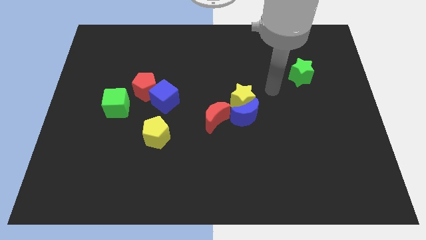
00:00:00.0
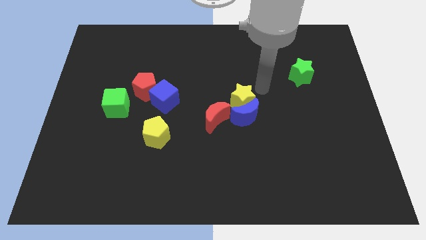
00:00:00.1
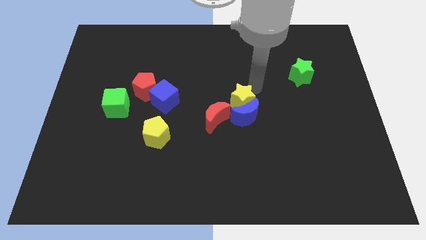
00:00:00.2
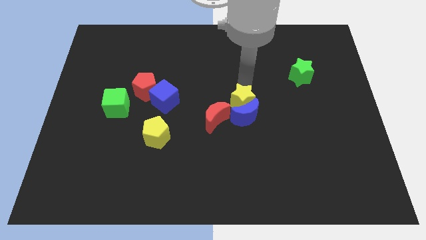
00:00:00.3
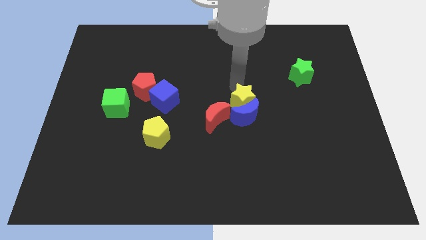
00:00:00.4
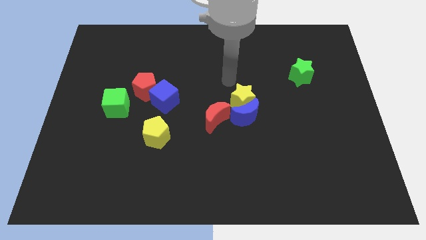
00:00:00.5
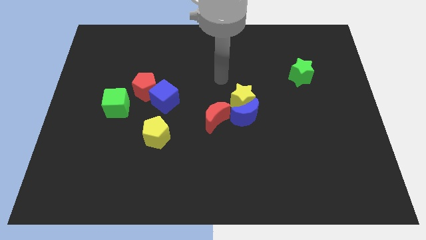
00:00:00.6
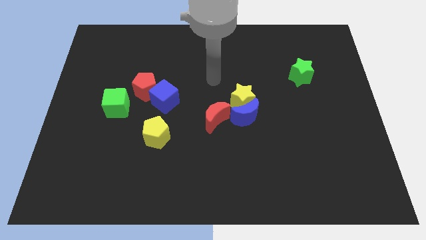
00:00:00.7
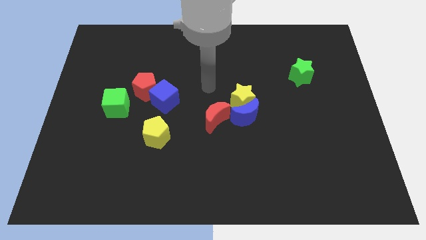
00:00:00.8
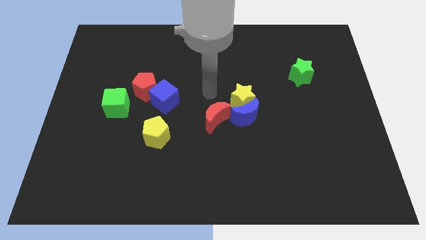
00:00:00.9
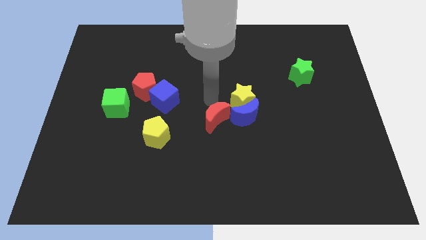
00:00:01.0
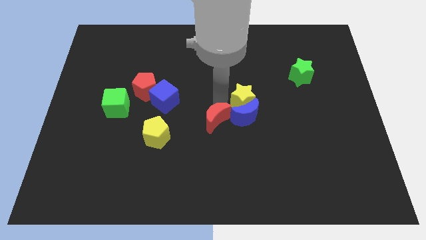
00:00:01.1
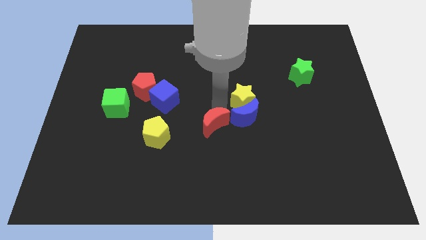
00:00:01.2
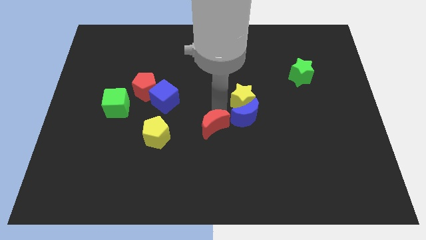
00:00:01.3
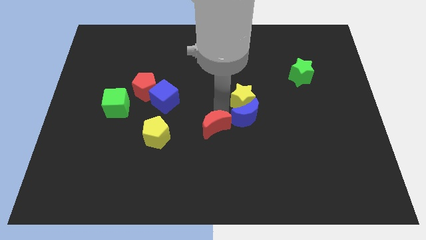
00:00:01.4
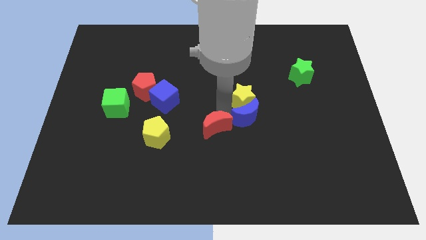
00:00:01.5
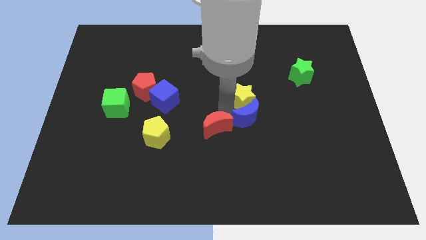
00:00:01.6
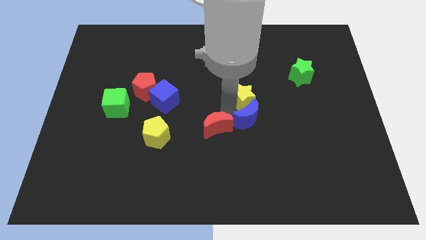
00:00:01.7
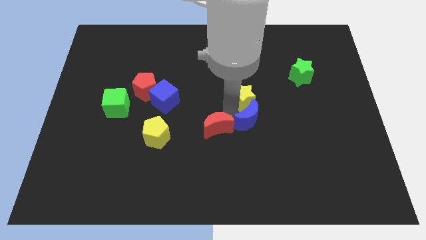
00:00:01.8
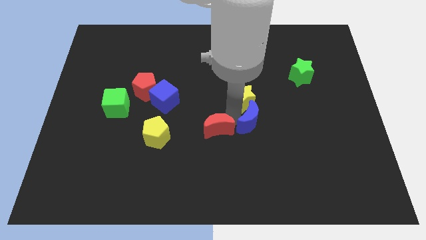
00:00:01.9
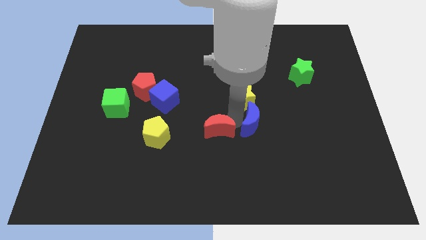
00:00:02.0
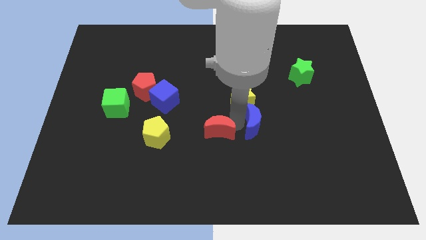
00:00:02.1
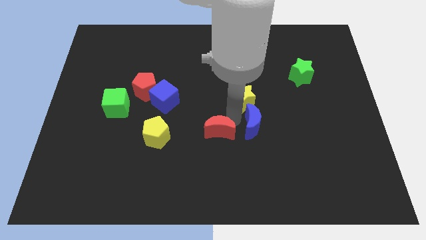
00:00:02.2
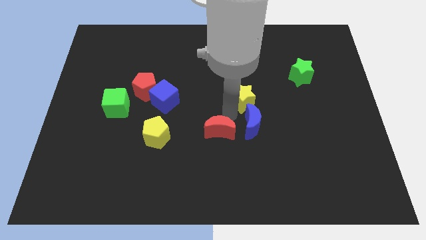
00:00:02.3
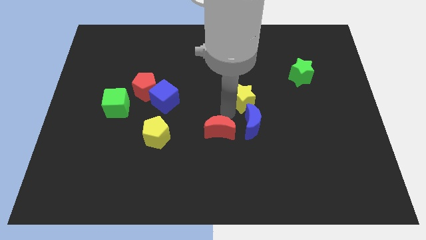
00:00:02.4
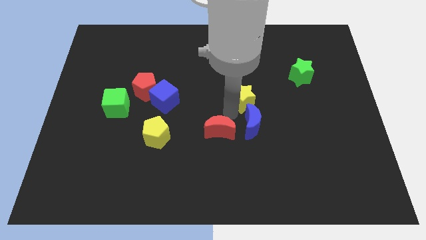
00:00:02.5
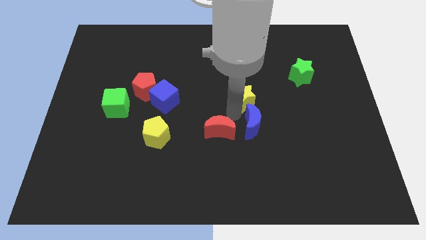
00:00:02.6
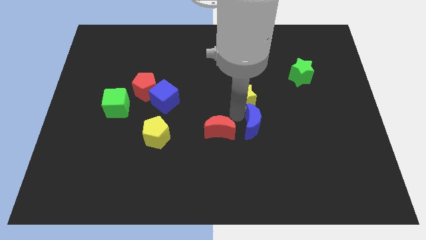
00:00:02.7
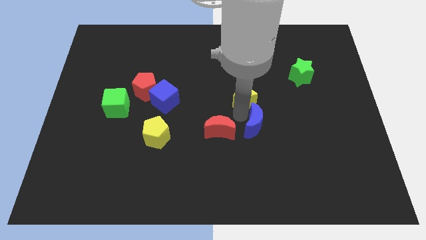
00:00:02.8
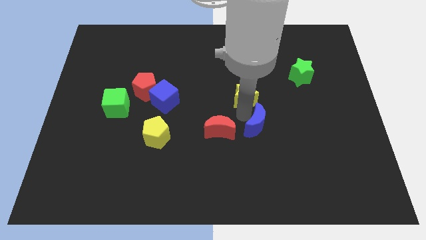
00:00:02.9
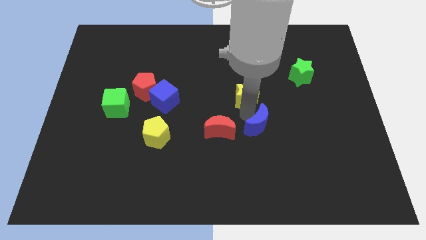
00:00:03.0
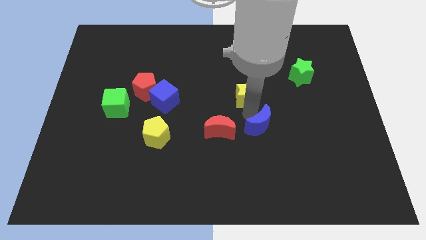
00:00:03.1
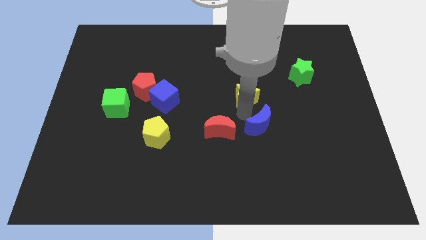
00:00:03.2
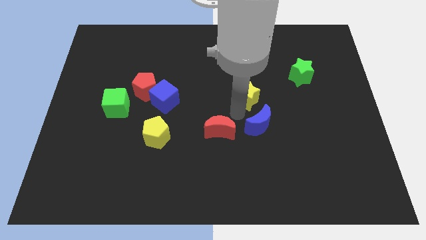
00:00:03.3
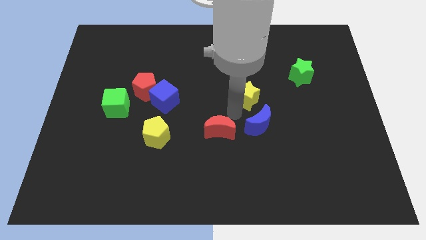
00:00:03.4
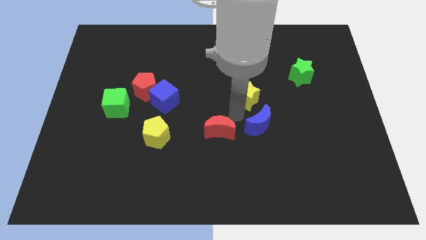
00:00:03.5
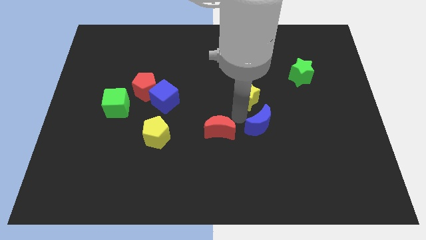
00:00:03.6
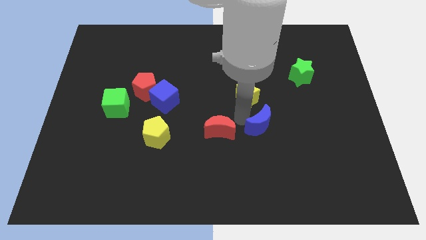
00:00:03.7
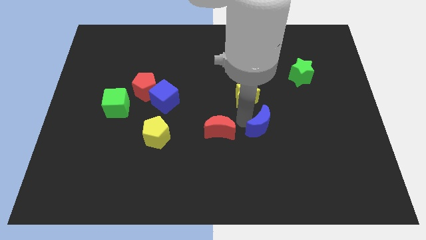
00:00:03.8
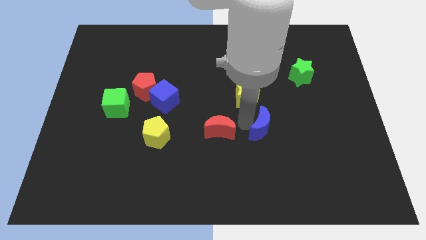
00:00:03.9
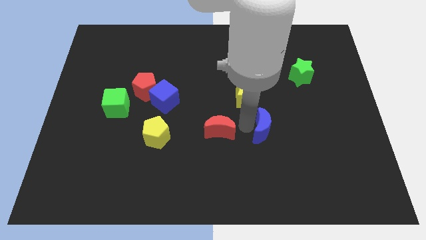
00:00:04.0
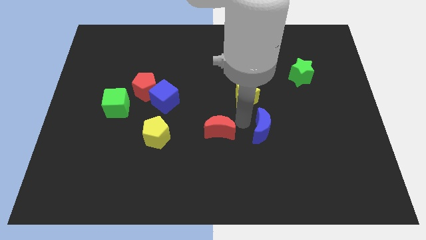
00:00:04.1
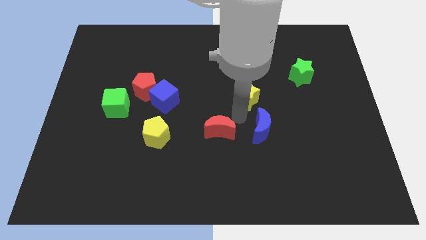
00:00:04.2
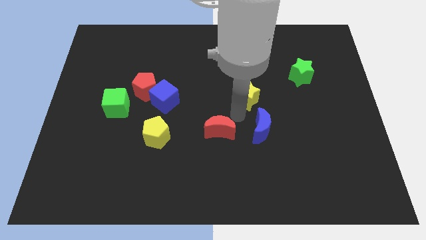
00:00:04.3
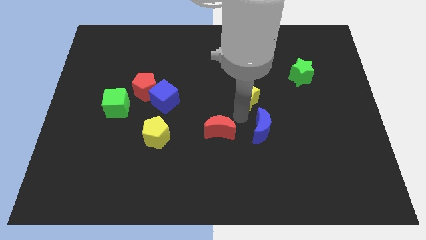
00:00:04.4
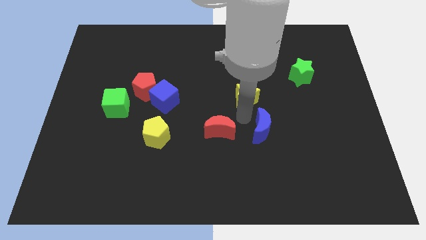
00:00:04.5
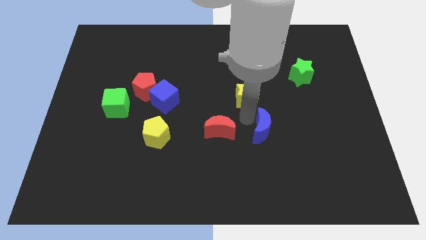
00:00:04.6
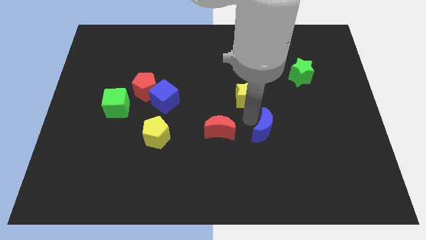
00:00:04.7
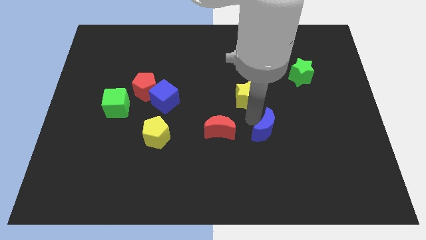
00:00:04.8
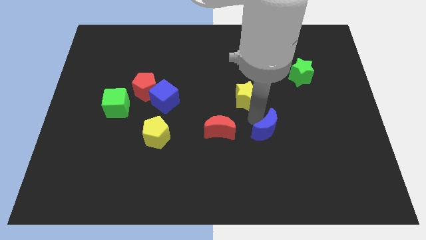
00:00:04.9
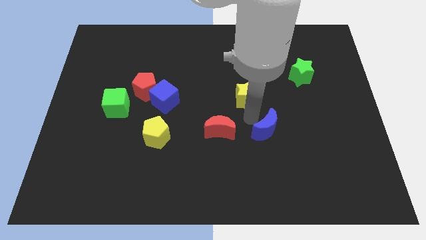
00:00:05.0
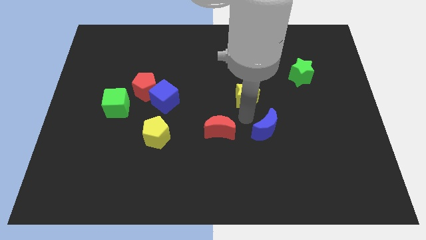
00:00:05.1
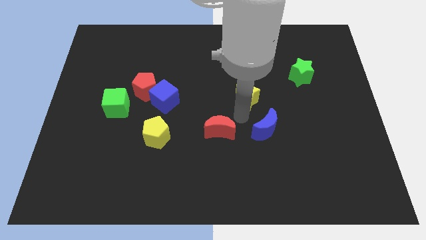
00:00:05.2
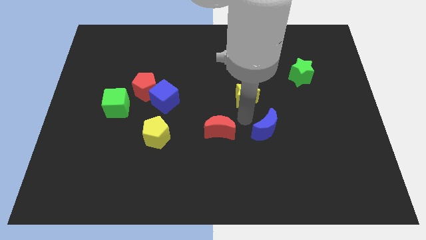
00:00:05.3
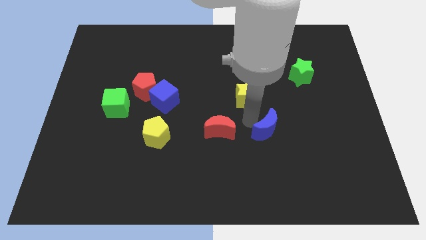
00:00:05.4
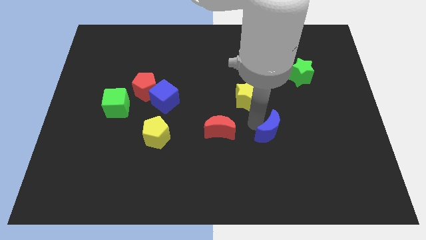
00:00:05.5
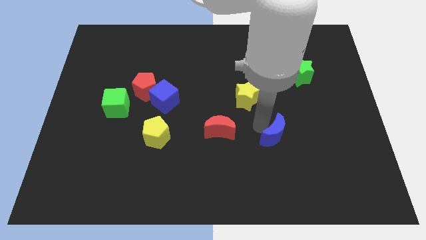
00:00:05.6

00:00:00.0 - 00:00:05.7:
move the blue moon away from the yellow star and red moon

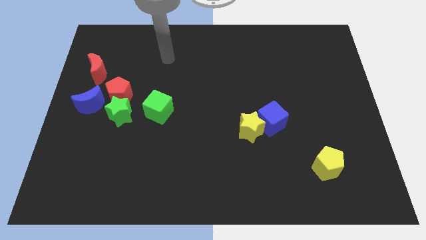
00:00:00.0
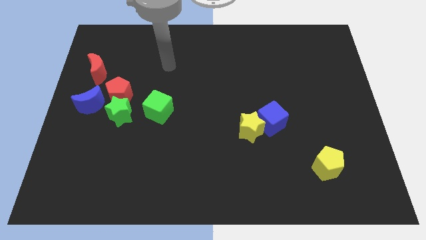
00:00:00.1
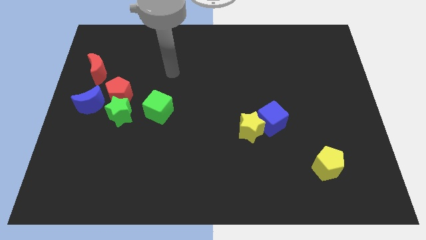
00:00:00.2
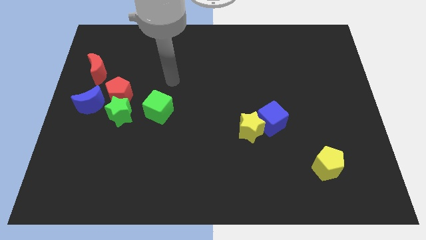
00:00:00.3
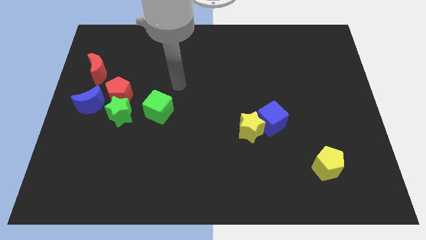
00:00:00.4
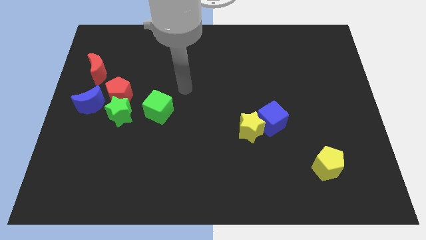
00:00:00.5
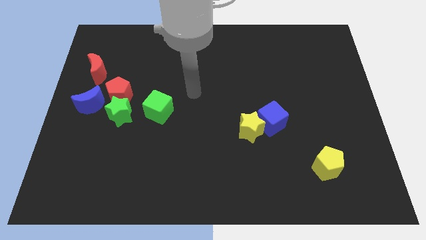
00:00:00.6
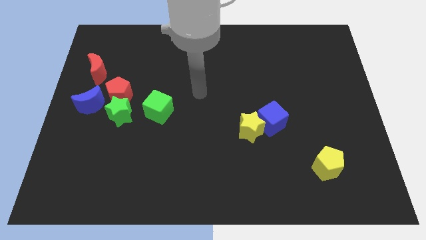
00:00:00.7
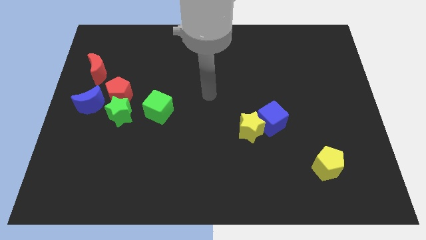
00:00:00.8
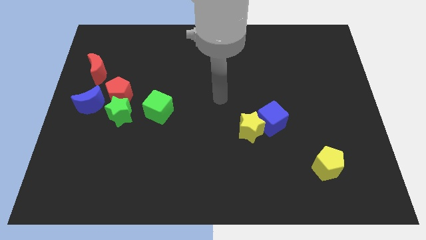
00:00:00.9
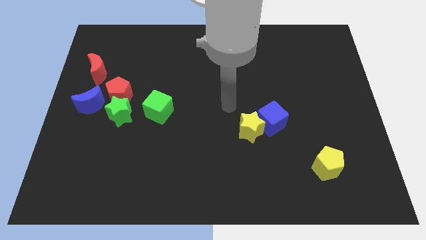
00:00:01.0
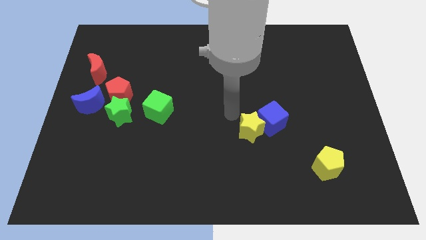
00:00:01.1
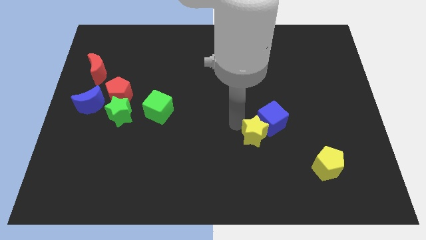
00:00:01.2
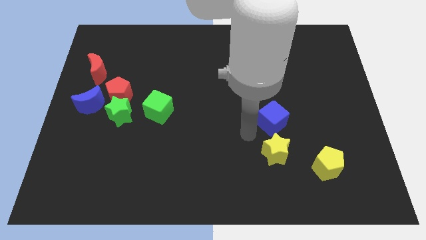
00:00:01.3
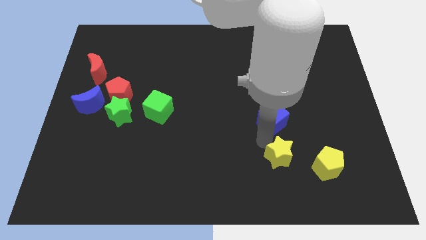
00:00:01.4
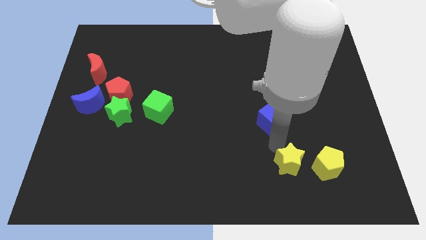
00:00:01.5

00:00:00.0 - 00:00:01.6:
move the blue cube away from the yellow star

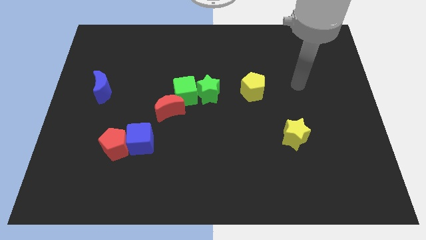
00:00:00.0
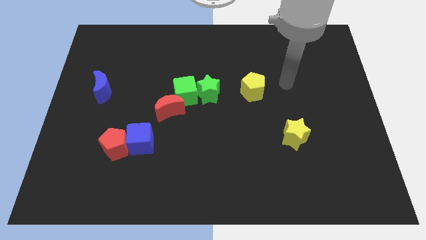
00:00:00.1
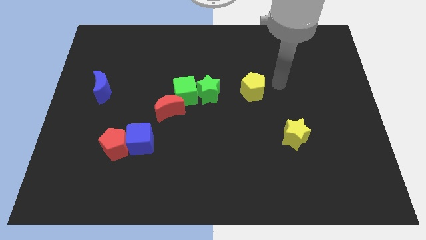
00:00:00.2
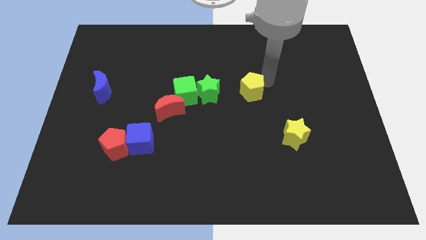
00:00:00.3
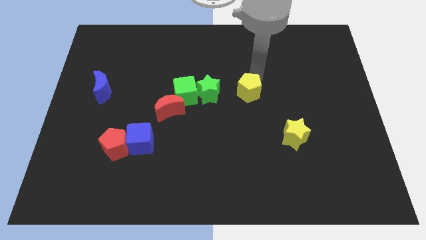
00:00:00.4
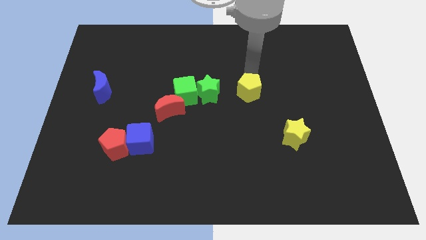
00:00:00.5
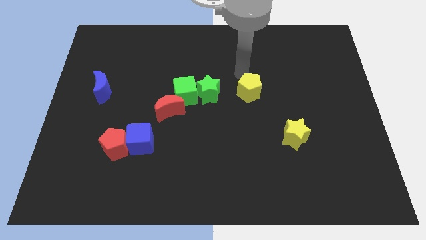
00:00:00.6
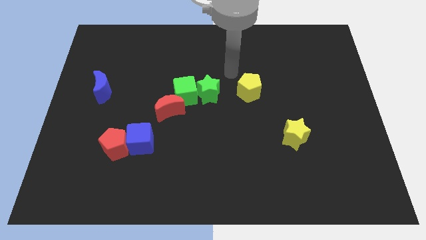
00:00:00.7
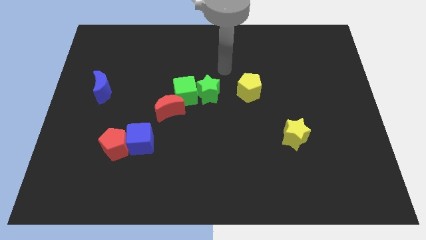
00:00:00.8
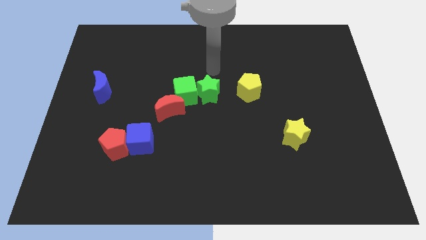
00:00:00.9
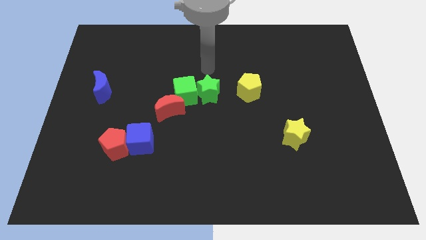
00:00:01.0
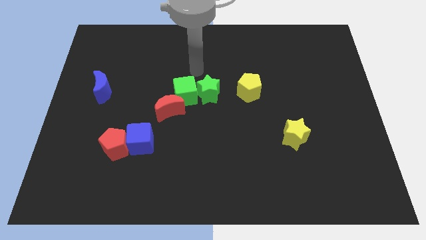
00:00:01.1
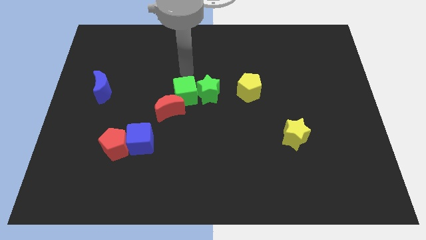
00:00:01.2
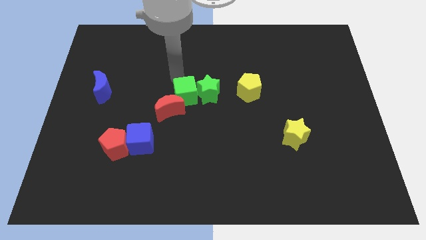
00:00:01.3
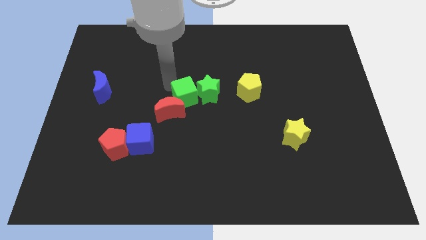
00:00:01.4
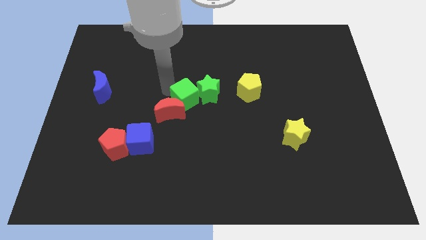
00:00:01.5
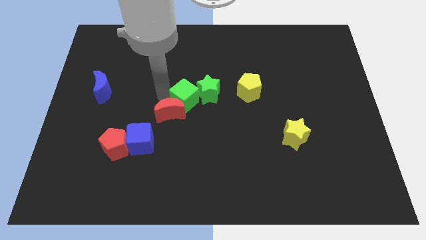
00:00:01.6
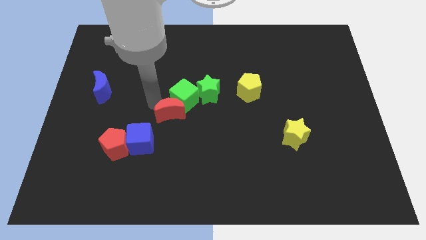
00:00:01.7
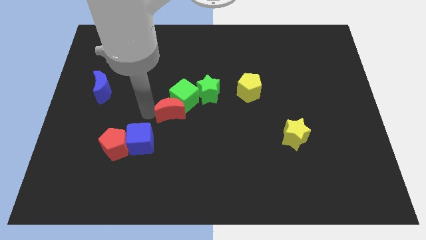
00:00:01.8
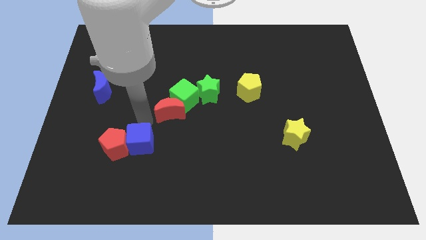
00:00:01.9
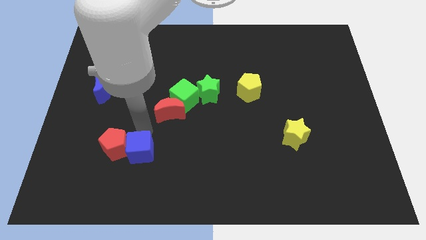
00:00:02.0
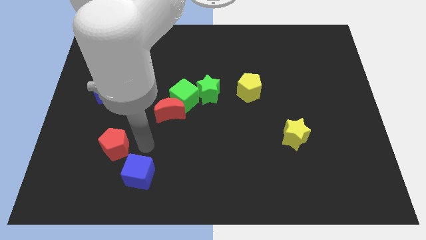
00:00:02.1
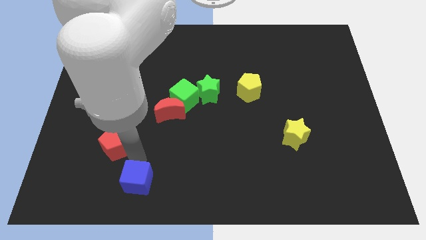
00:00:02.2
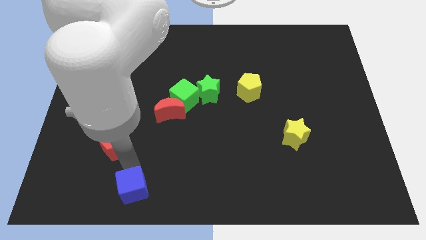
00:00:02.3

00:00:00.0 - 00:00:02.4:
move the red pentagon away from the blue cube
